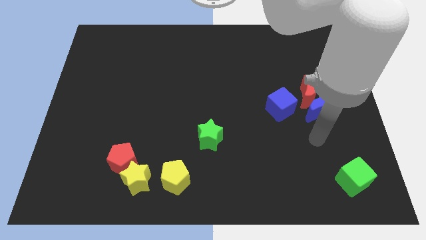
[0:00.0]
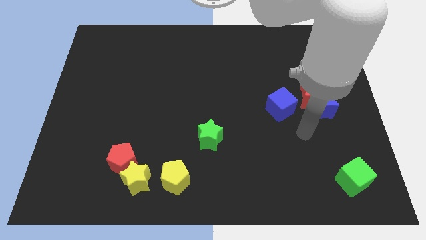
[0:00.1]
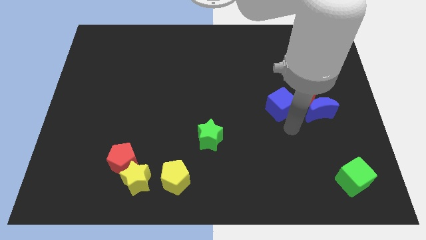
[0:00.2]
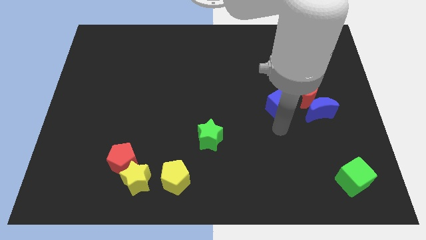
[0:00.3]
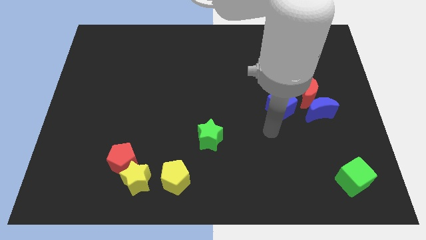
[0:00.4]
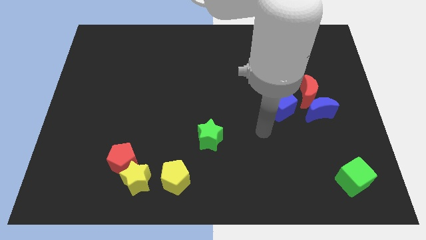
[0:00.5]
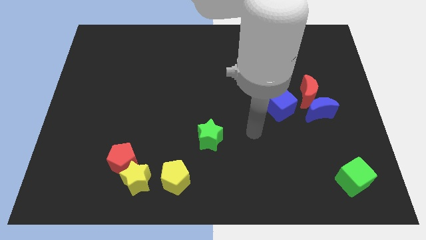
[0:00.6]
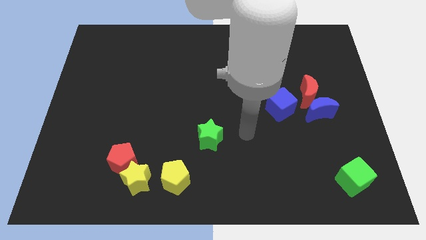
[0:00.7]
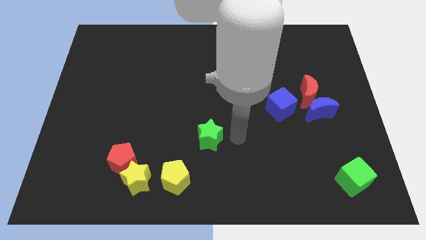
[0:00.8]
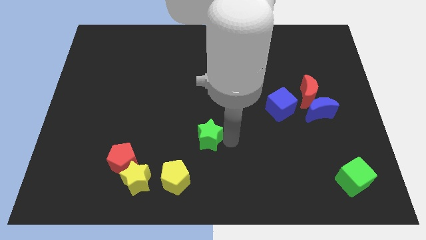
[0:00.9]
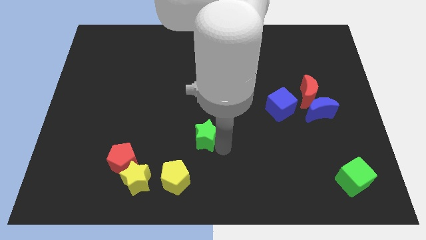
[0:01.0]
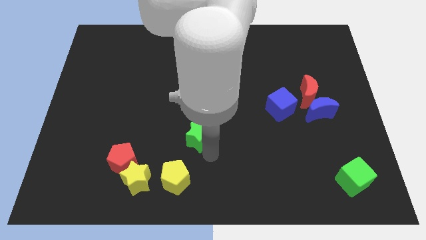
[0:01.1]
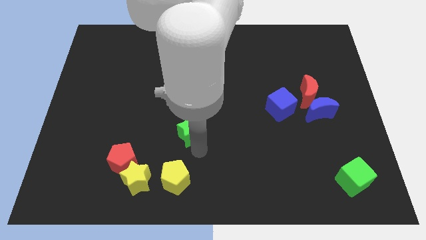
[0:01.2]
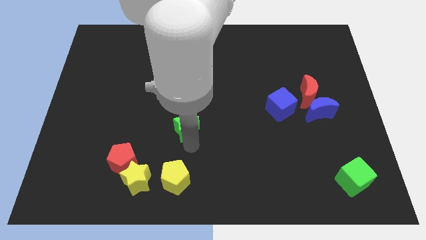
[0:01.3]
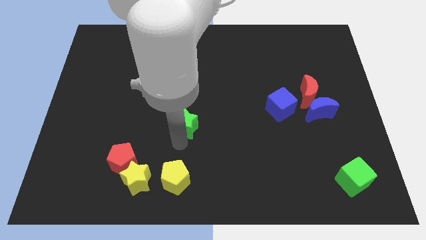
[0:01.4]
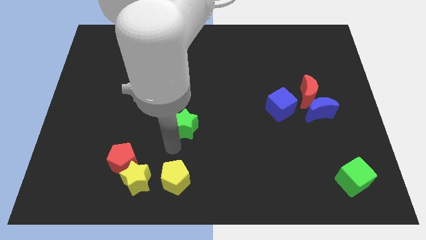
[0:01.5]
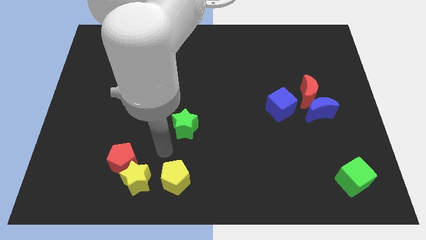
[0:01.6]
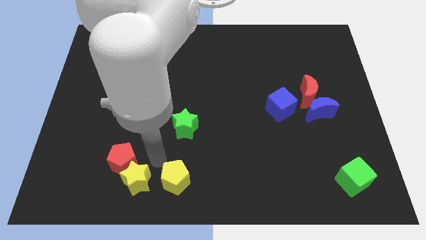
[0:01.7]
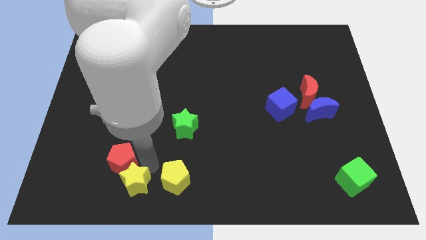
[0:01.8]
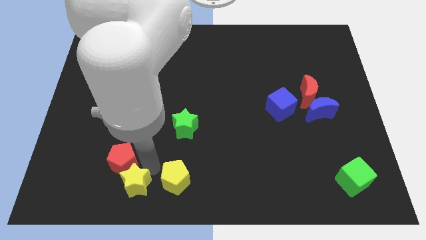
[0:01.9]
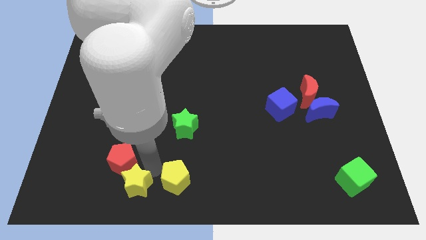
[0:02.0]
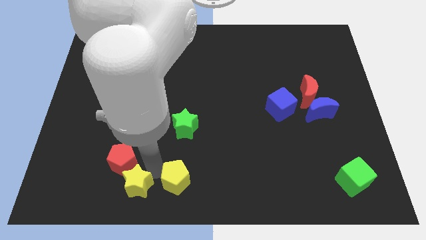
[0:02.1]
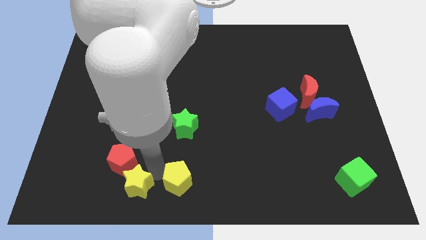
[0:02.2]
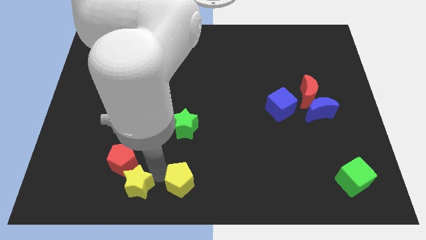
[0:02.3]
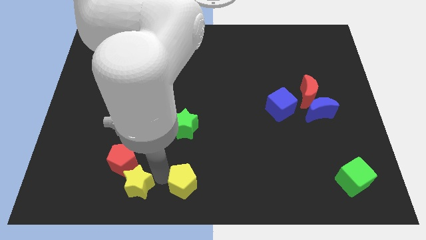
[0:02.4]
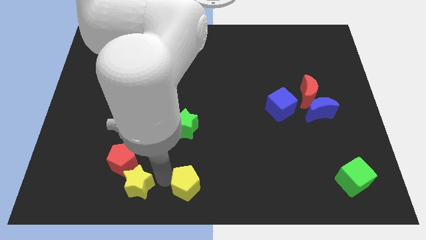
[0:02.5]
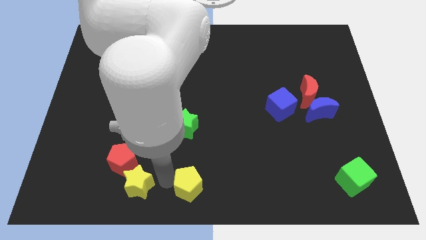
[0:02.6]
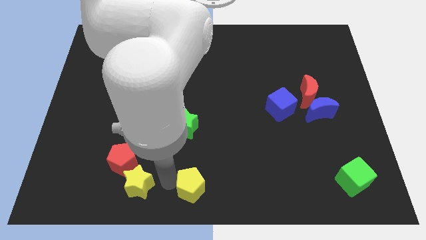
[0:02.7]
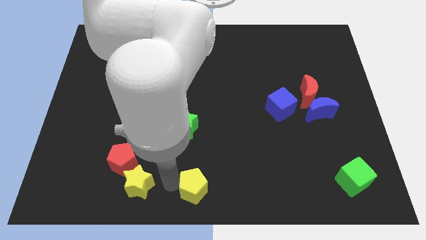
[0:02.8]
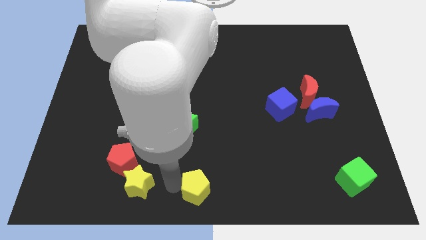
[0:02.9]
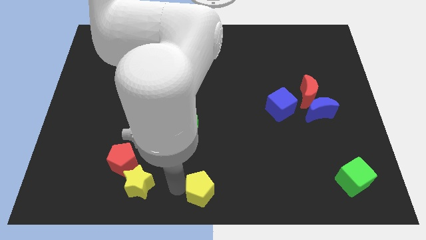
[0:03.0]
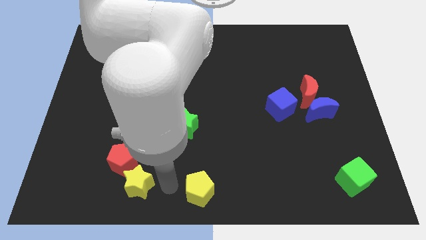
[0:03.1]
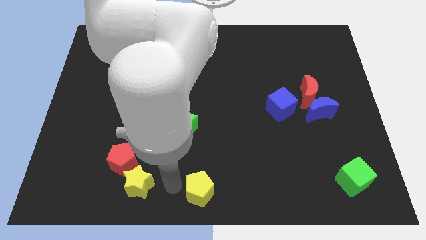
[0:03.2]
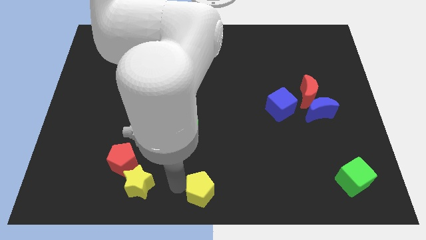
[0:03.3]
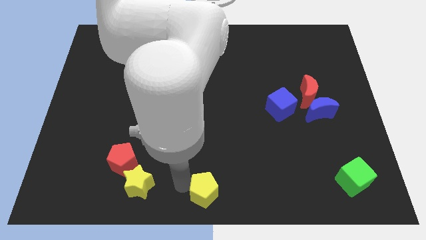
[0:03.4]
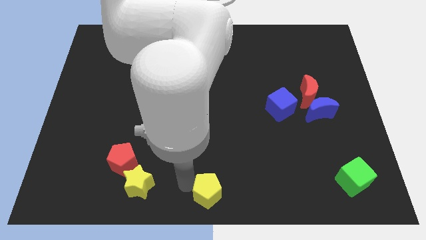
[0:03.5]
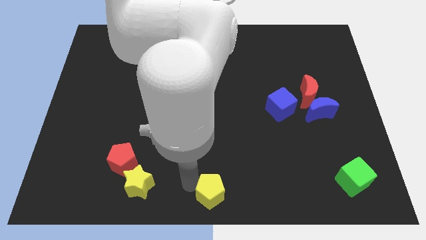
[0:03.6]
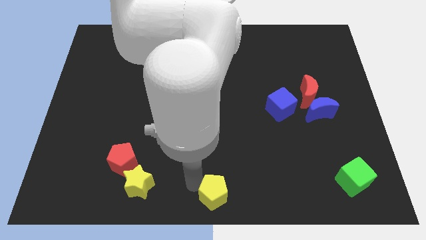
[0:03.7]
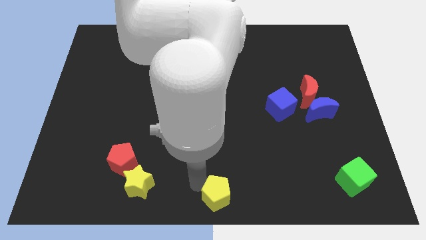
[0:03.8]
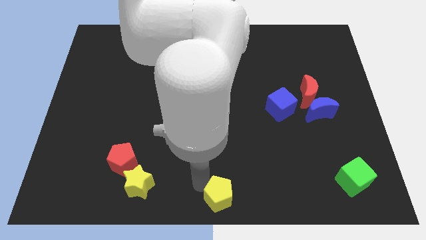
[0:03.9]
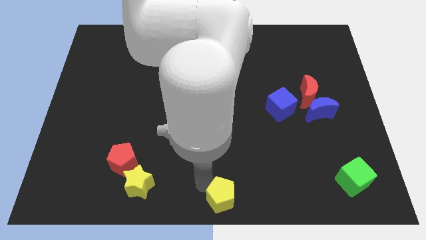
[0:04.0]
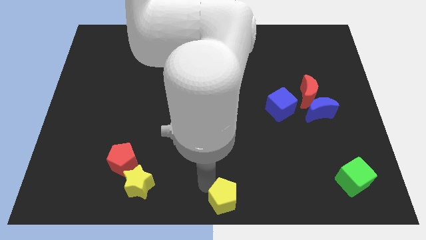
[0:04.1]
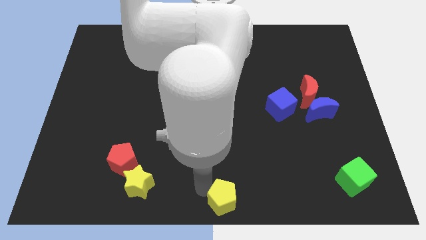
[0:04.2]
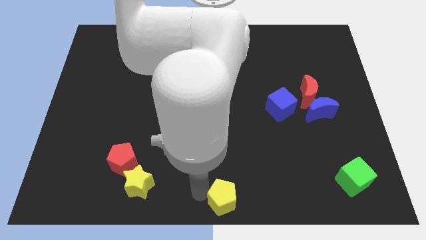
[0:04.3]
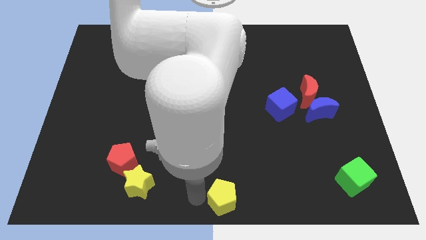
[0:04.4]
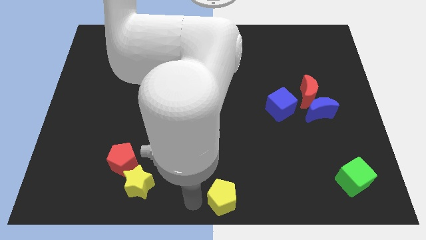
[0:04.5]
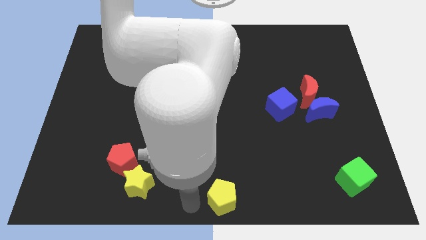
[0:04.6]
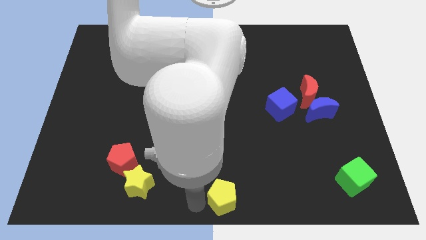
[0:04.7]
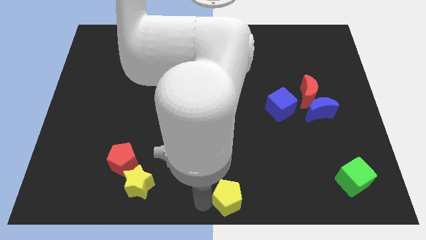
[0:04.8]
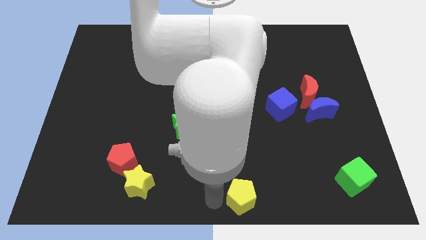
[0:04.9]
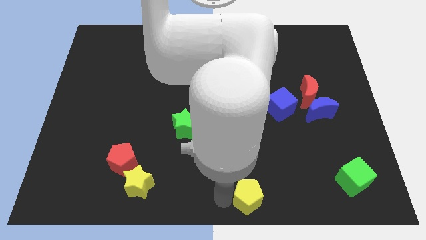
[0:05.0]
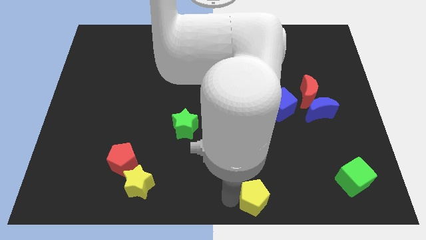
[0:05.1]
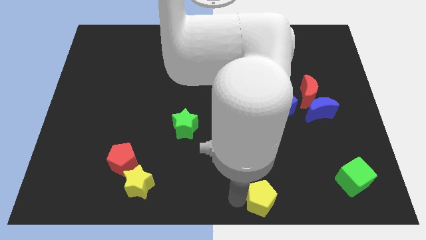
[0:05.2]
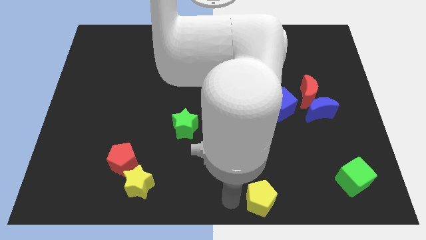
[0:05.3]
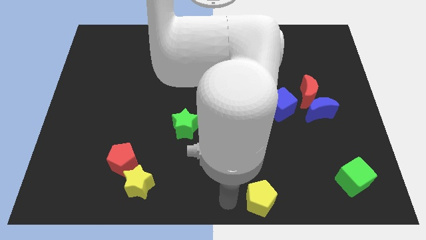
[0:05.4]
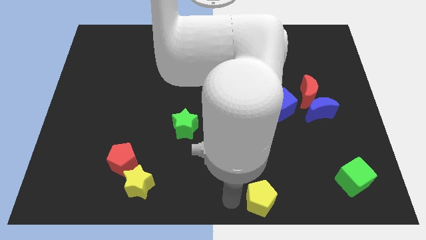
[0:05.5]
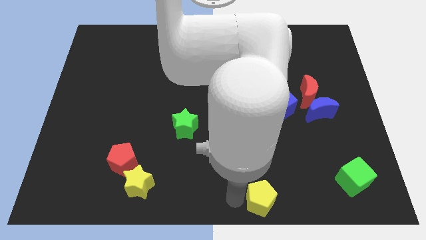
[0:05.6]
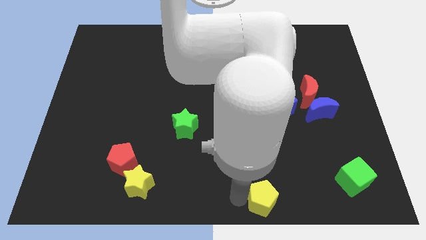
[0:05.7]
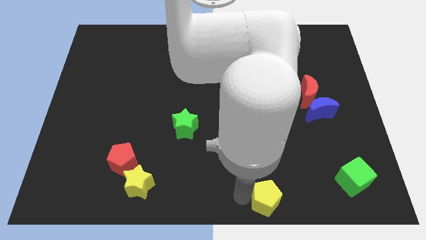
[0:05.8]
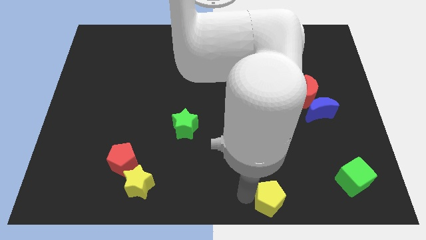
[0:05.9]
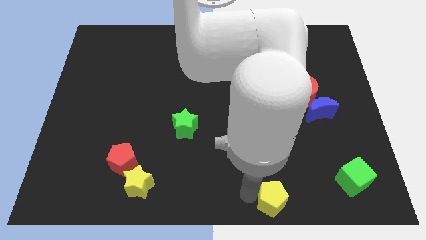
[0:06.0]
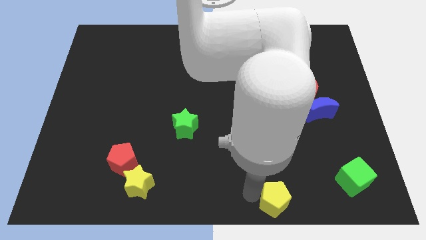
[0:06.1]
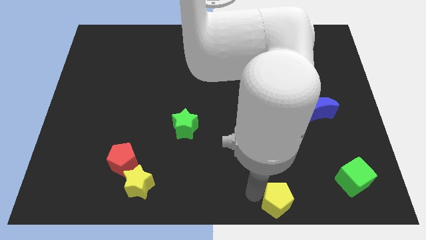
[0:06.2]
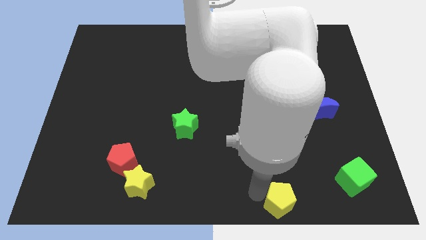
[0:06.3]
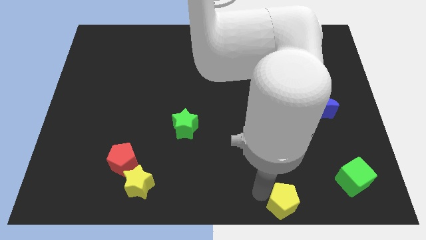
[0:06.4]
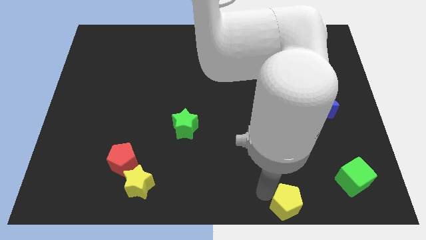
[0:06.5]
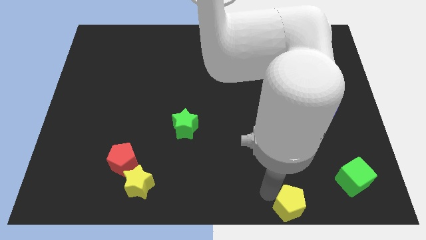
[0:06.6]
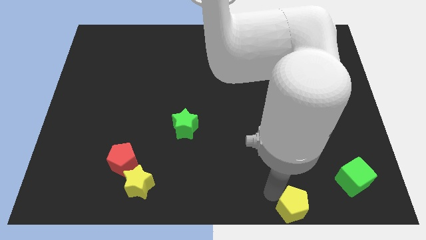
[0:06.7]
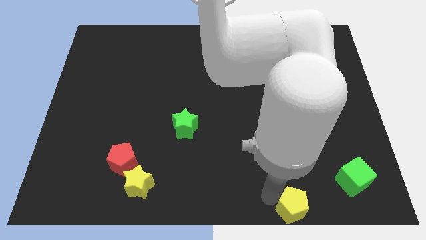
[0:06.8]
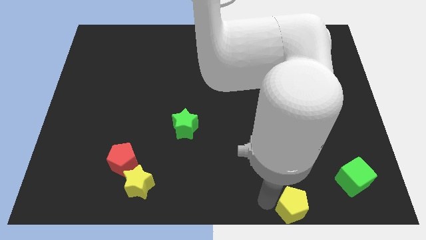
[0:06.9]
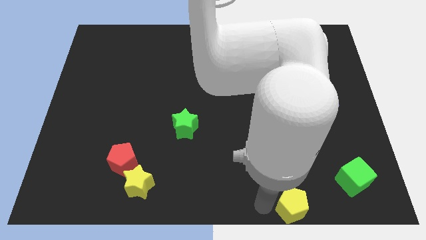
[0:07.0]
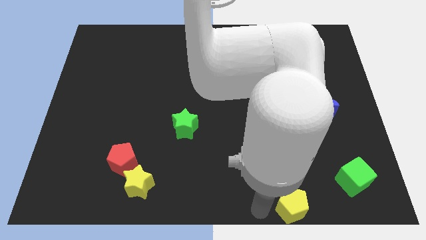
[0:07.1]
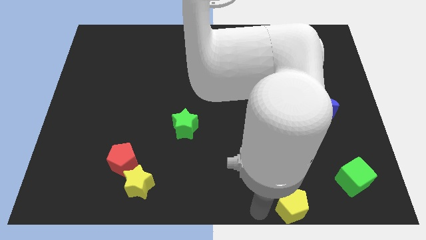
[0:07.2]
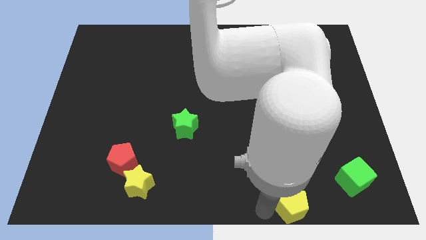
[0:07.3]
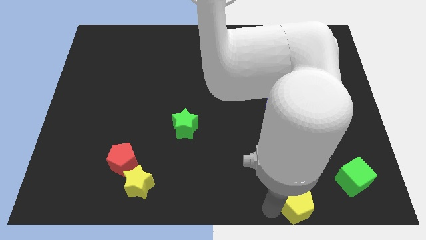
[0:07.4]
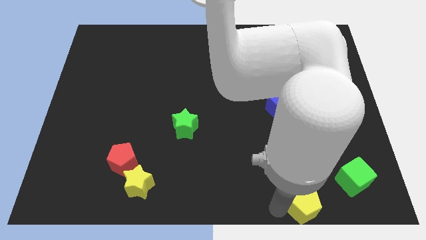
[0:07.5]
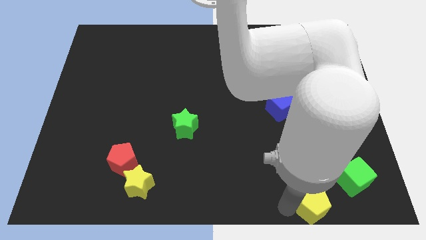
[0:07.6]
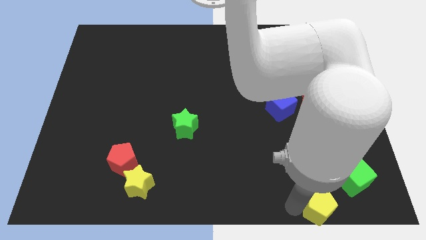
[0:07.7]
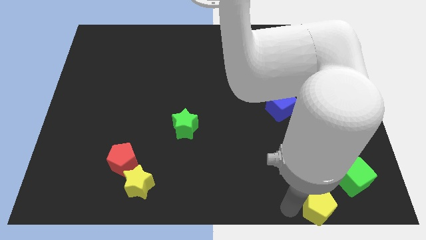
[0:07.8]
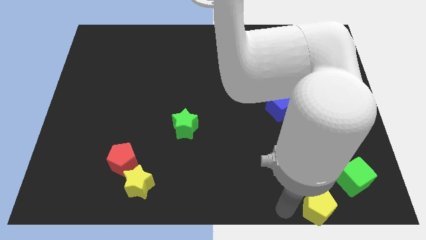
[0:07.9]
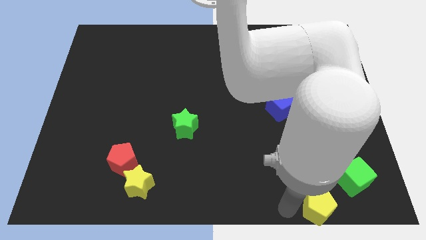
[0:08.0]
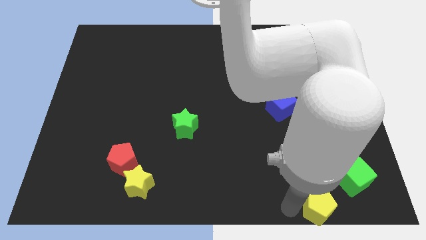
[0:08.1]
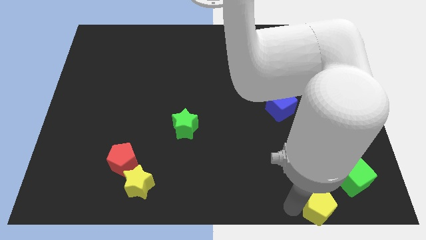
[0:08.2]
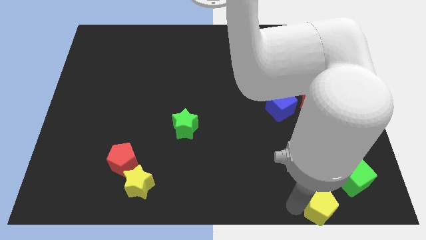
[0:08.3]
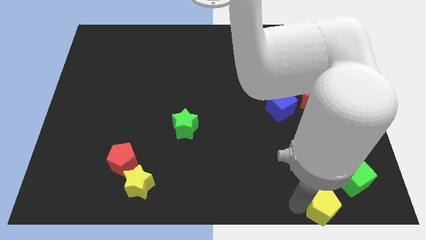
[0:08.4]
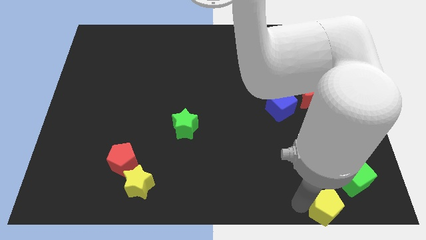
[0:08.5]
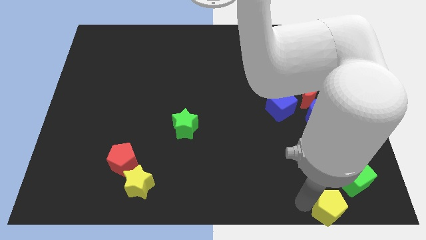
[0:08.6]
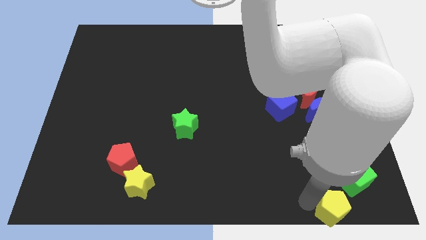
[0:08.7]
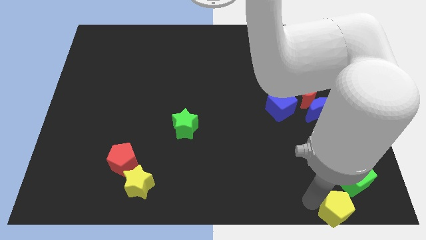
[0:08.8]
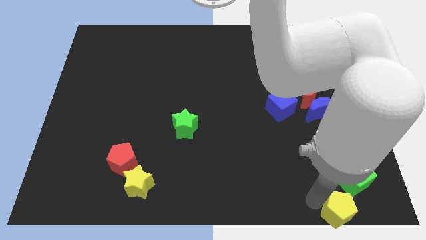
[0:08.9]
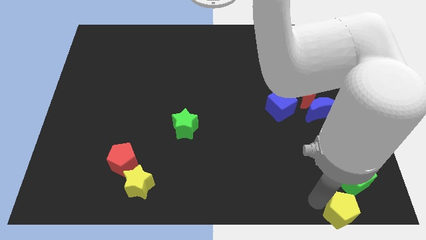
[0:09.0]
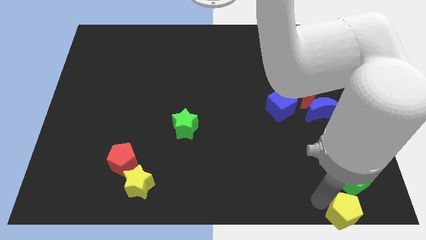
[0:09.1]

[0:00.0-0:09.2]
push the yellow pentagon to the bottom right corner
